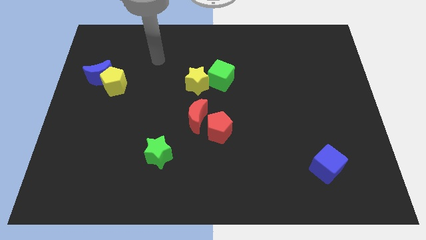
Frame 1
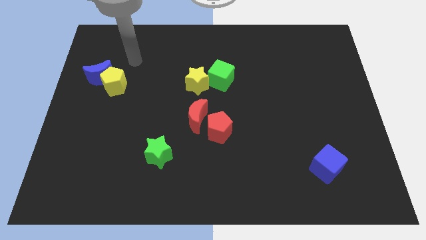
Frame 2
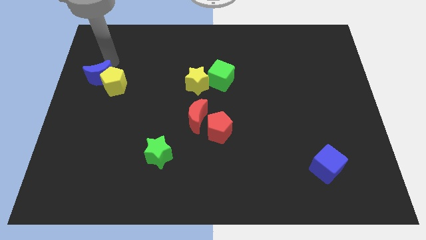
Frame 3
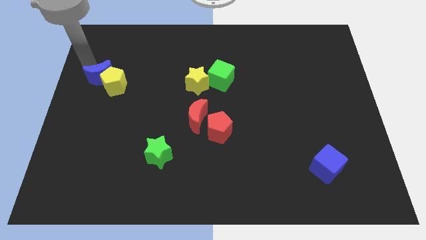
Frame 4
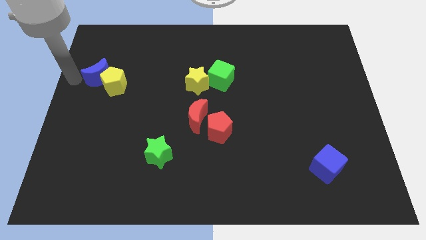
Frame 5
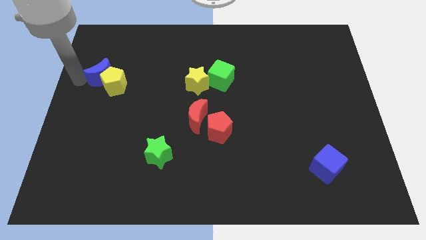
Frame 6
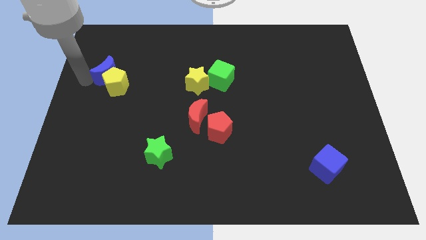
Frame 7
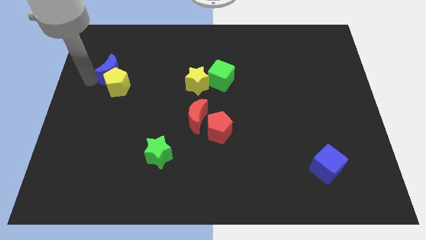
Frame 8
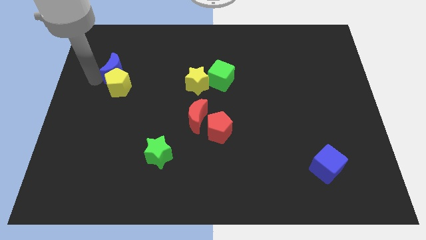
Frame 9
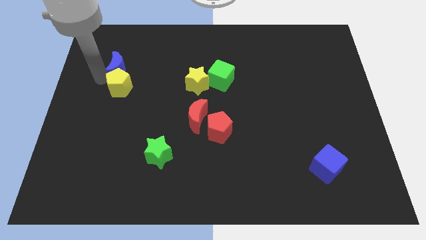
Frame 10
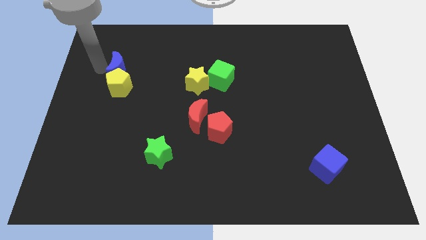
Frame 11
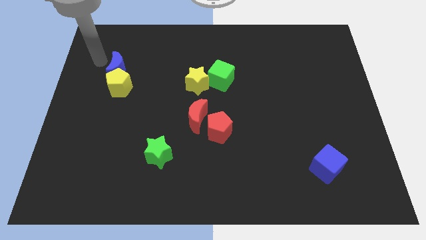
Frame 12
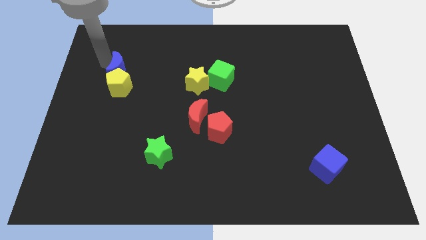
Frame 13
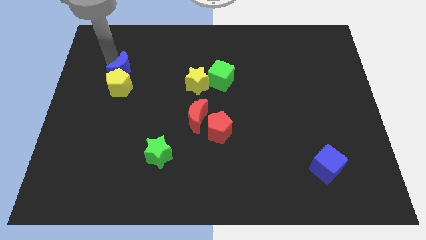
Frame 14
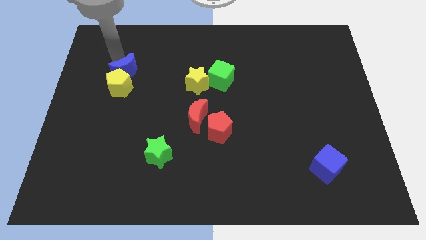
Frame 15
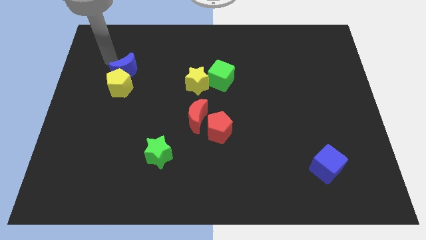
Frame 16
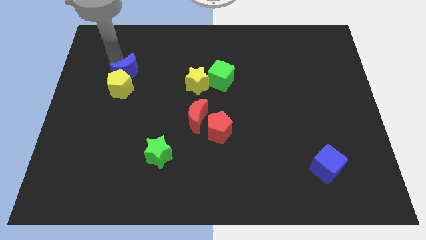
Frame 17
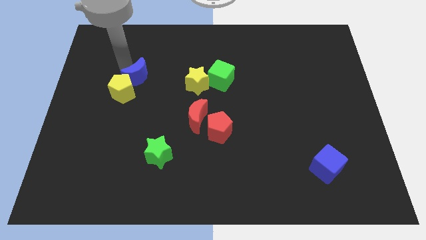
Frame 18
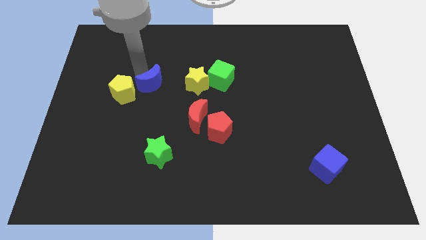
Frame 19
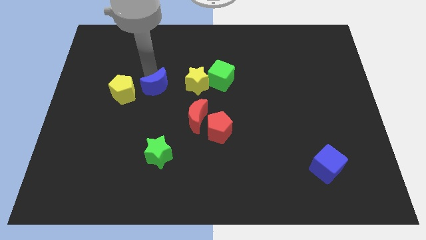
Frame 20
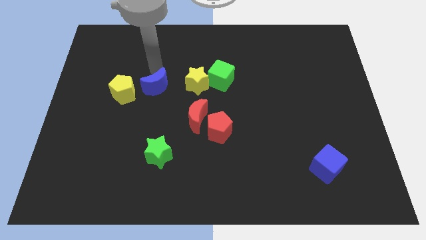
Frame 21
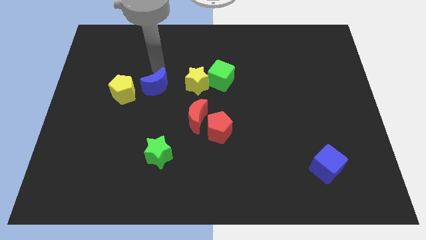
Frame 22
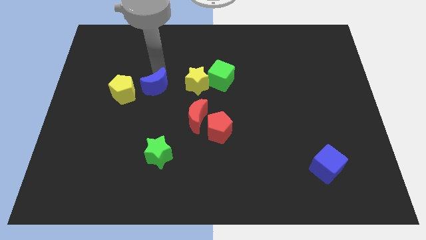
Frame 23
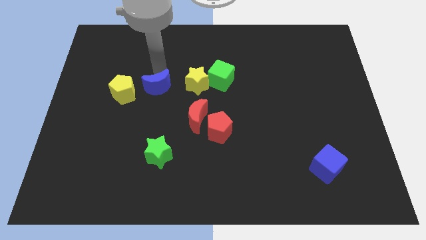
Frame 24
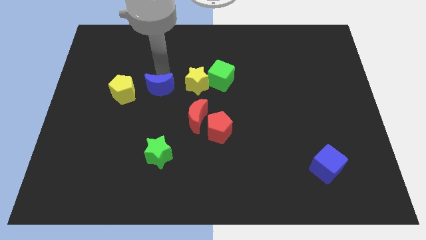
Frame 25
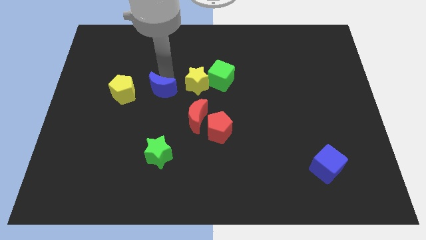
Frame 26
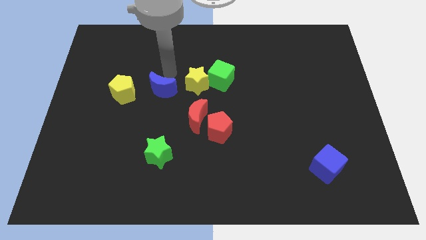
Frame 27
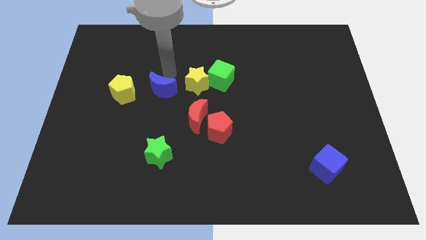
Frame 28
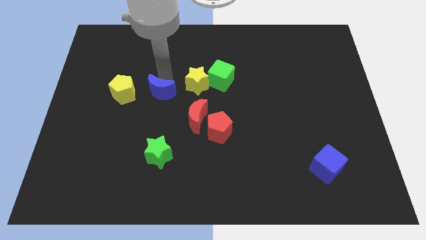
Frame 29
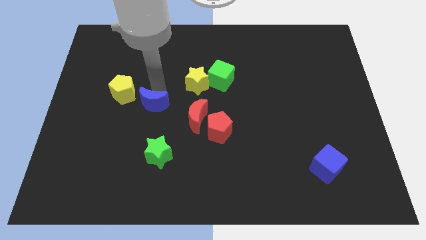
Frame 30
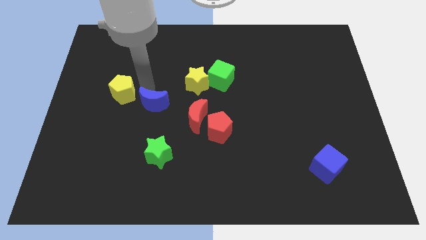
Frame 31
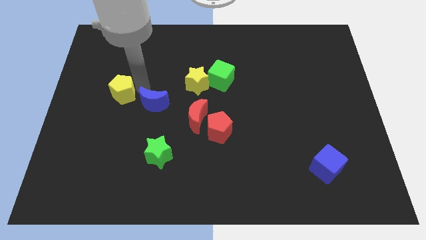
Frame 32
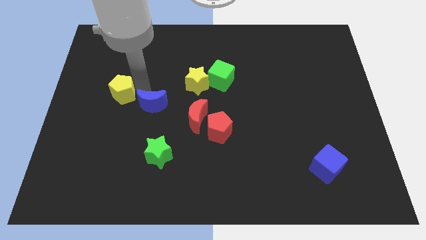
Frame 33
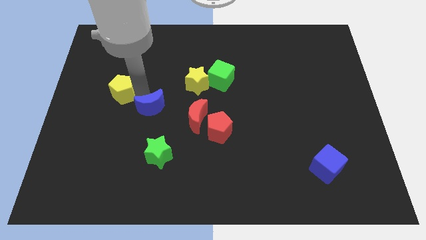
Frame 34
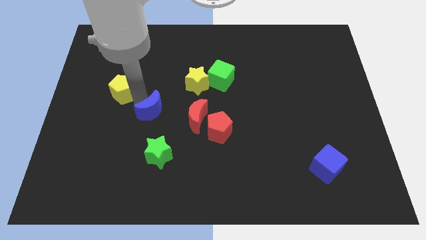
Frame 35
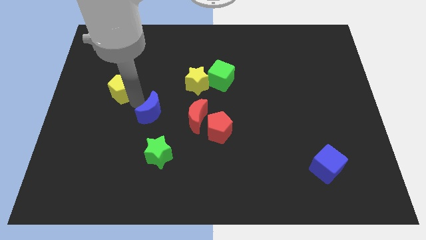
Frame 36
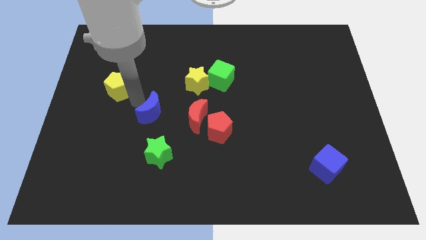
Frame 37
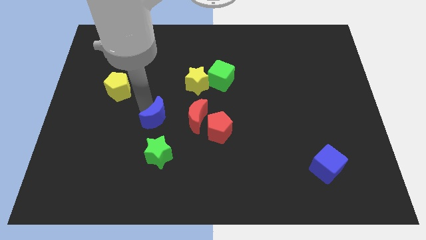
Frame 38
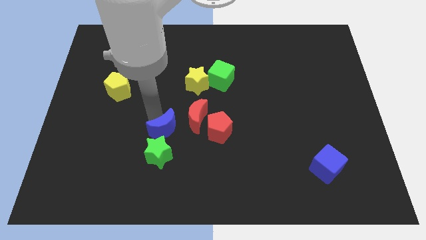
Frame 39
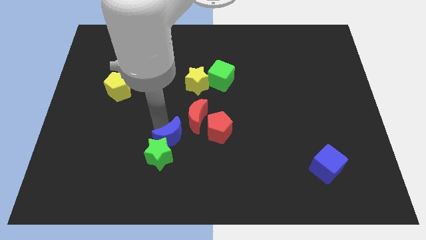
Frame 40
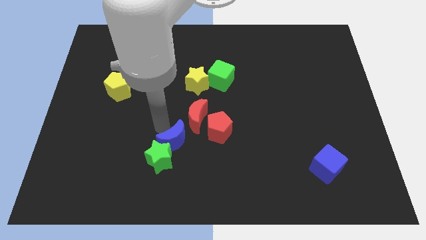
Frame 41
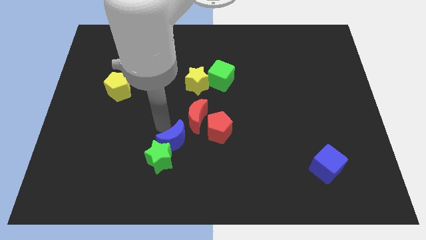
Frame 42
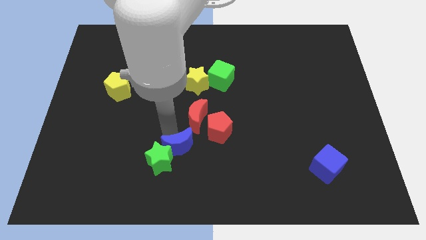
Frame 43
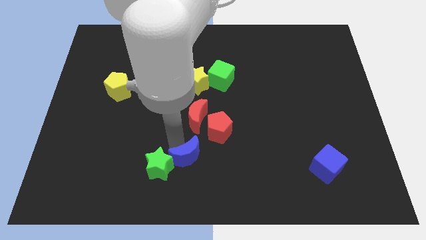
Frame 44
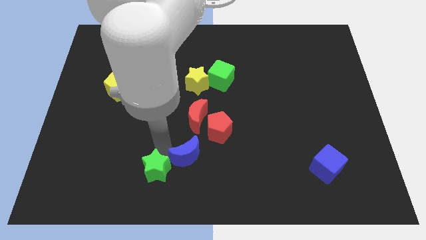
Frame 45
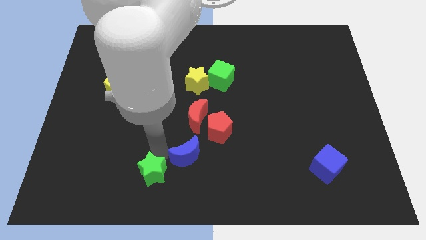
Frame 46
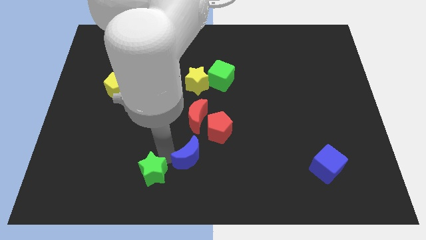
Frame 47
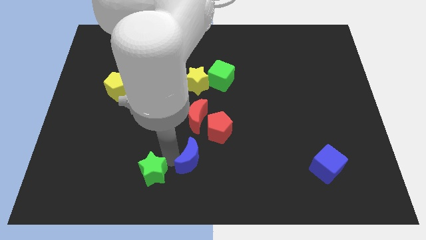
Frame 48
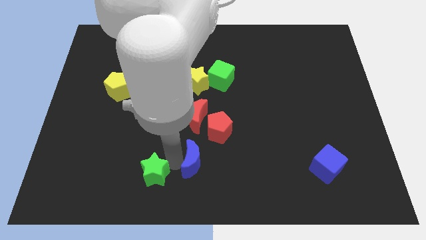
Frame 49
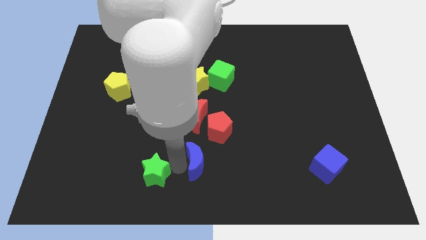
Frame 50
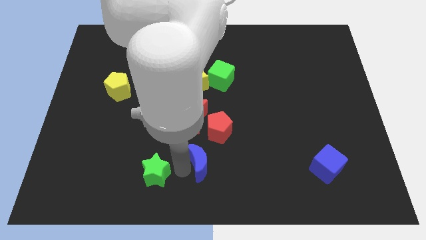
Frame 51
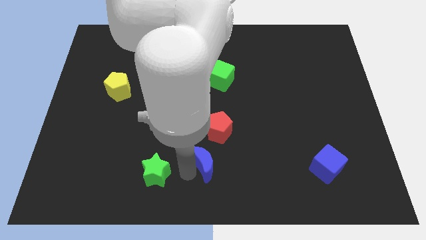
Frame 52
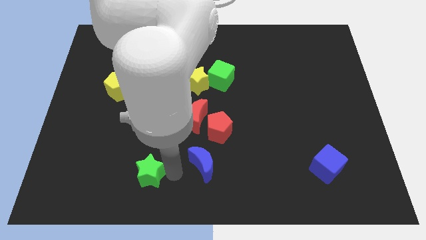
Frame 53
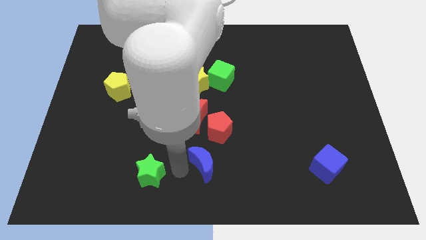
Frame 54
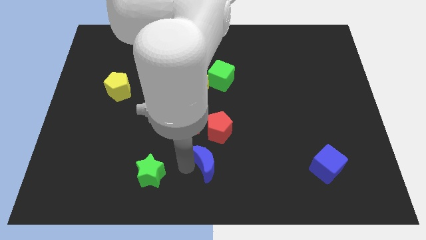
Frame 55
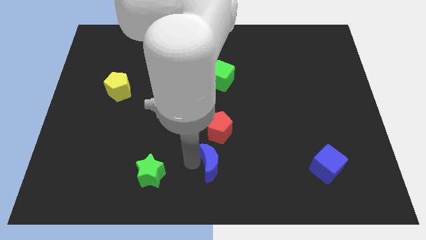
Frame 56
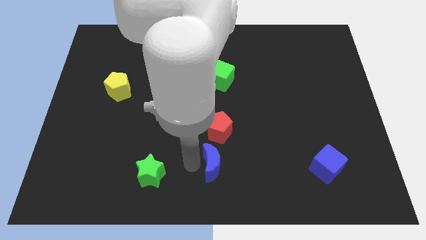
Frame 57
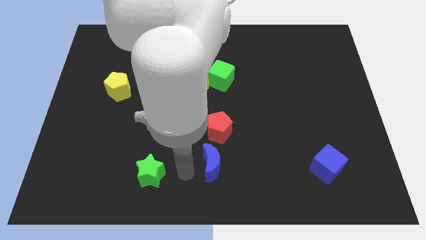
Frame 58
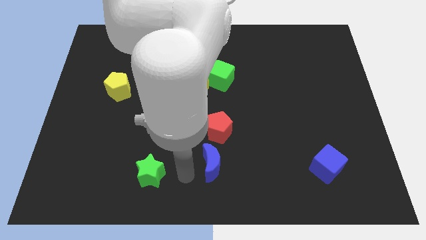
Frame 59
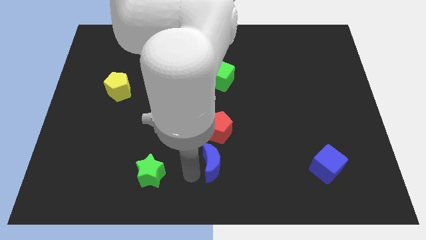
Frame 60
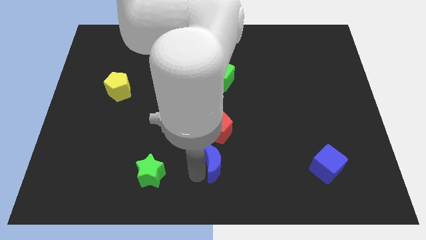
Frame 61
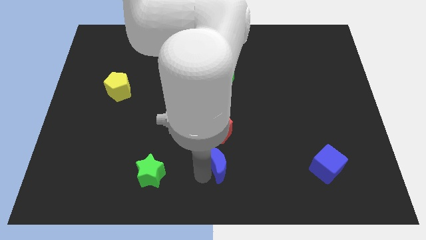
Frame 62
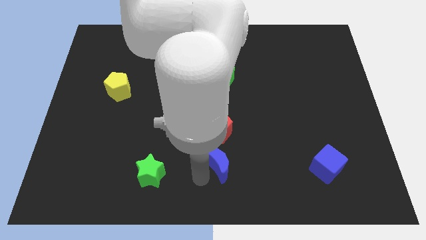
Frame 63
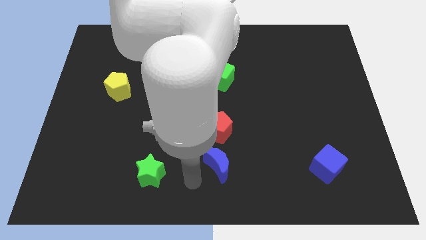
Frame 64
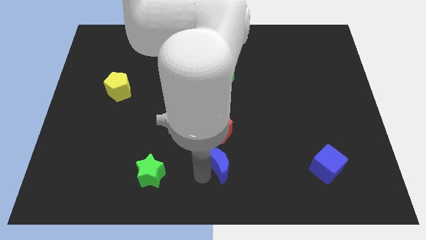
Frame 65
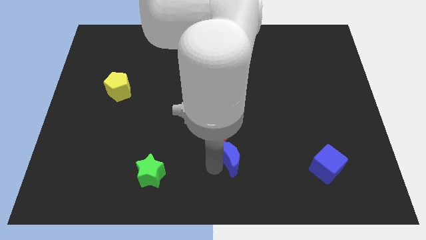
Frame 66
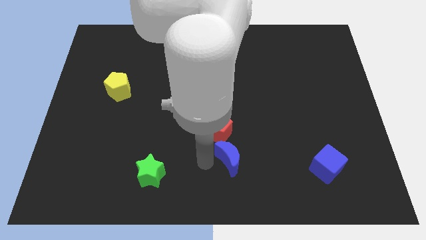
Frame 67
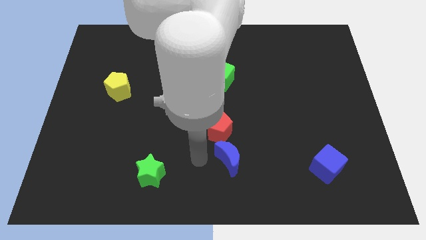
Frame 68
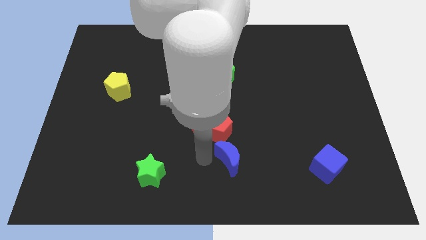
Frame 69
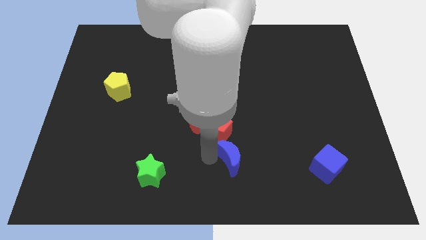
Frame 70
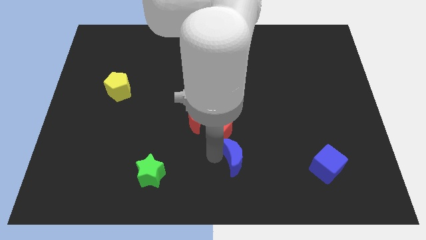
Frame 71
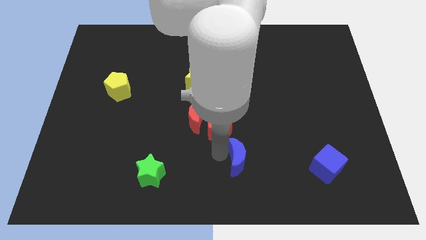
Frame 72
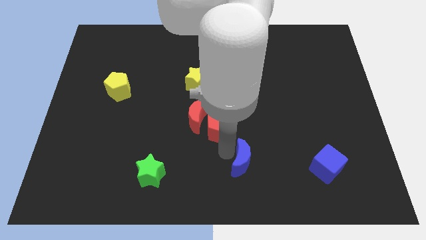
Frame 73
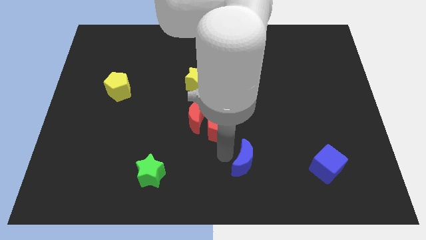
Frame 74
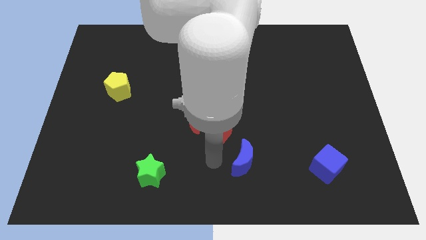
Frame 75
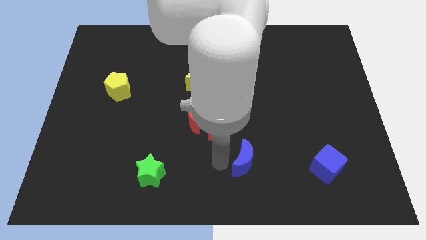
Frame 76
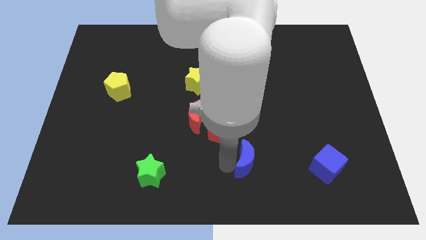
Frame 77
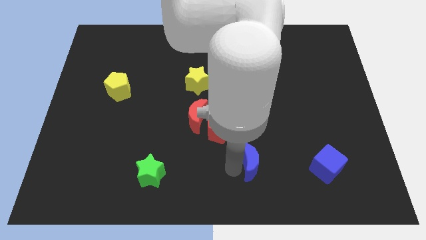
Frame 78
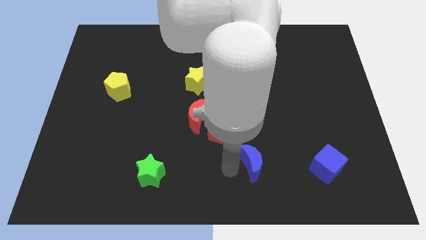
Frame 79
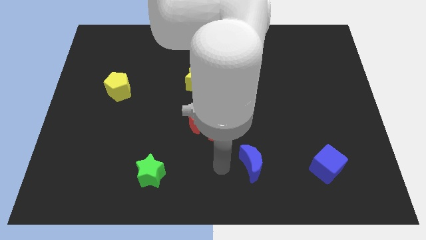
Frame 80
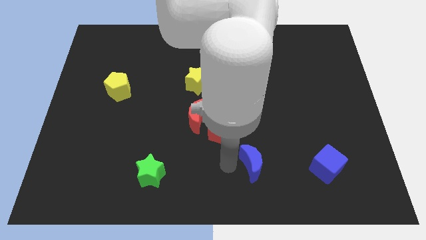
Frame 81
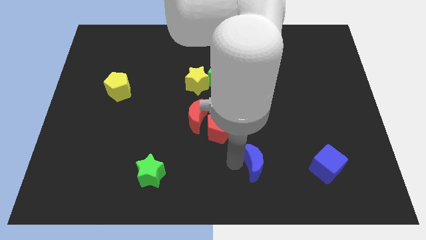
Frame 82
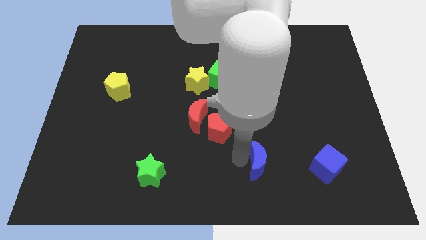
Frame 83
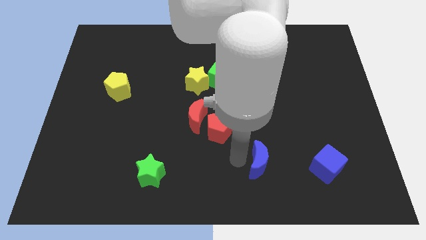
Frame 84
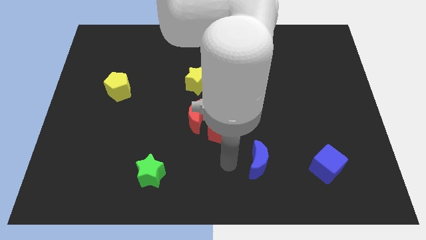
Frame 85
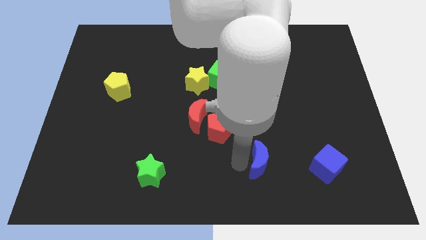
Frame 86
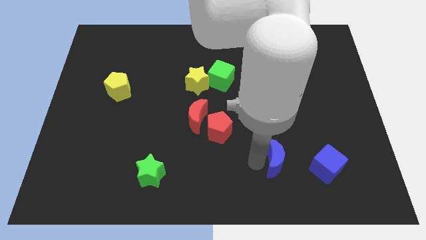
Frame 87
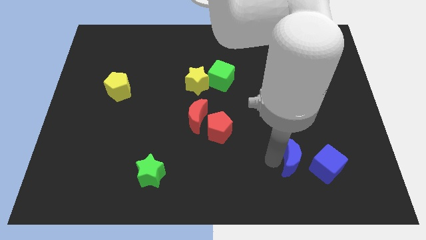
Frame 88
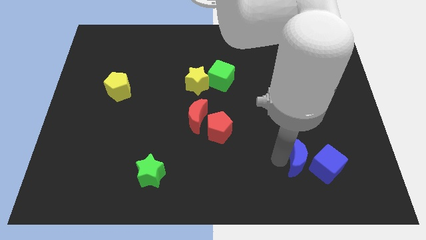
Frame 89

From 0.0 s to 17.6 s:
slide the blue moon close to the blue cube
